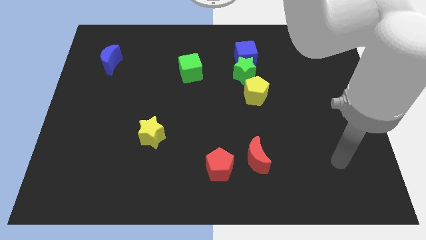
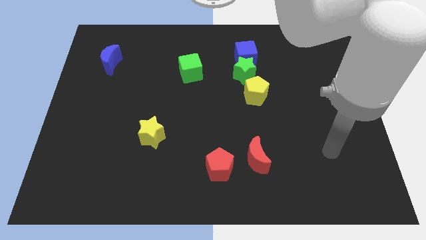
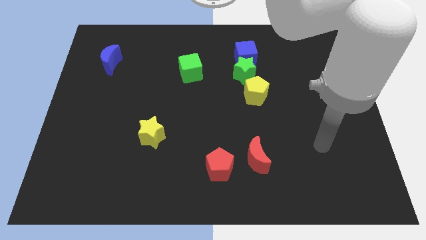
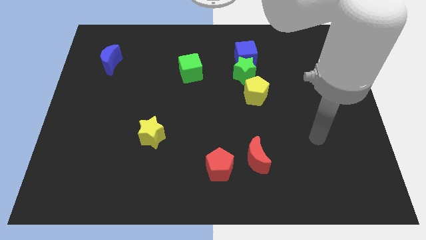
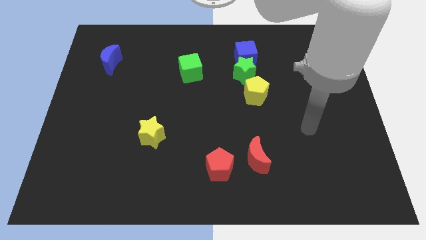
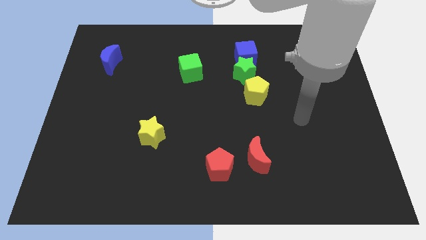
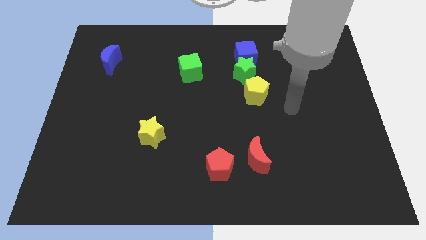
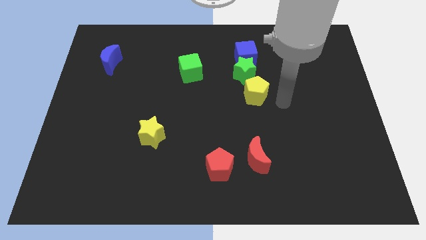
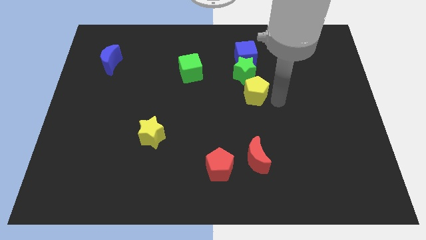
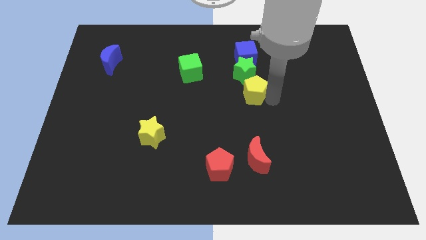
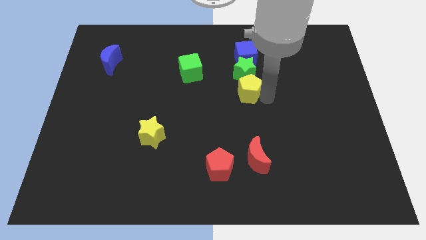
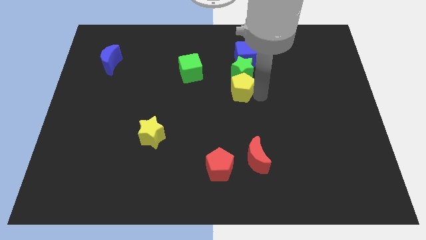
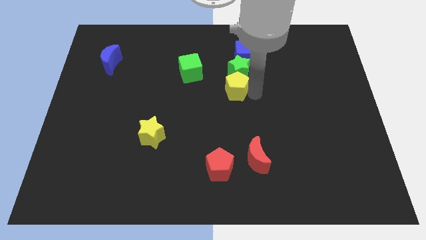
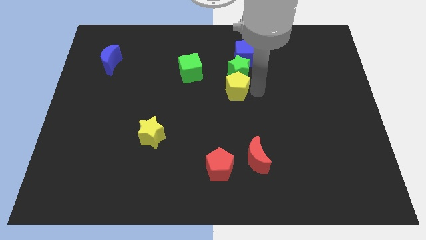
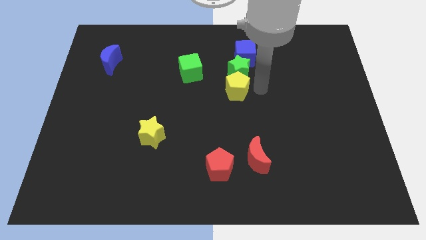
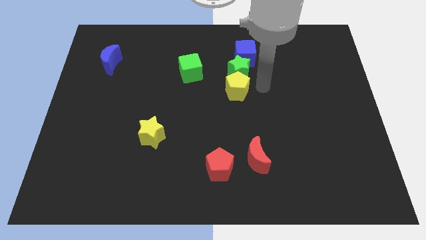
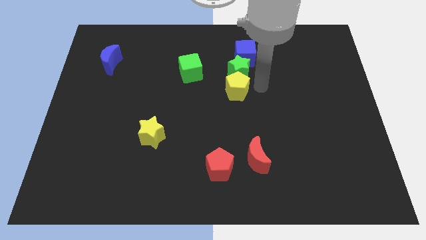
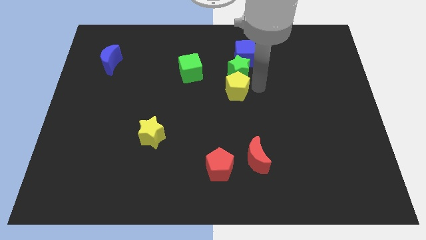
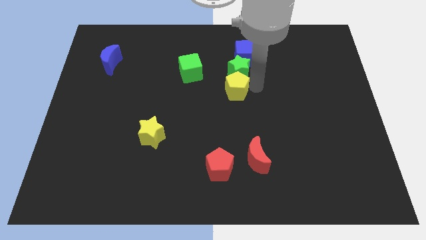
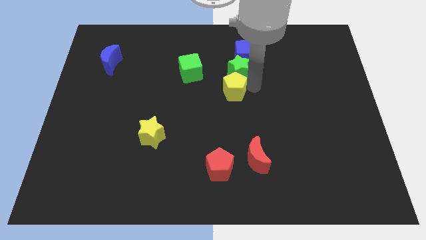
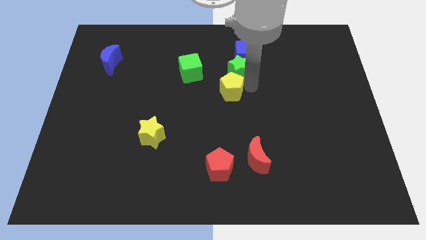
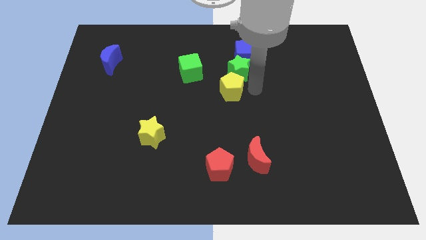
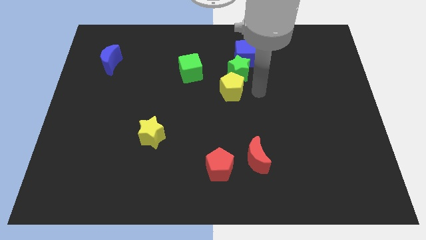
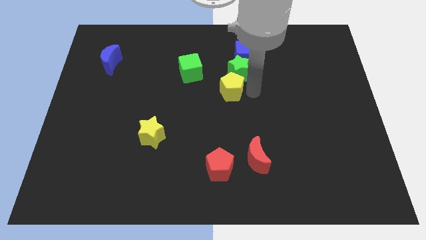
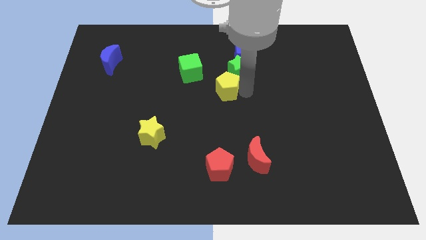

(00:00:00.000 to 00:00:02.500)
slightly push the yellow pentagon left

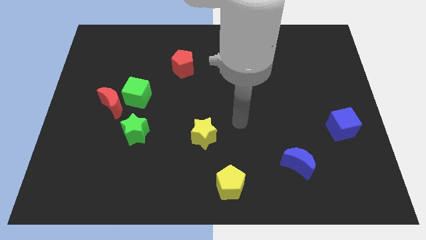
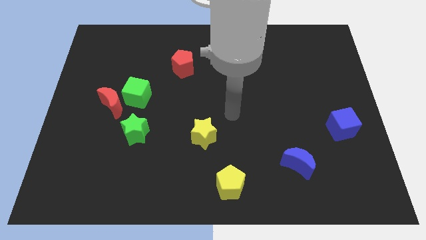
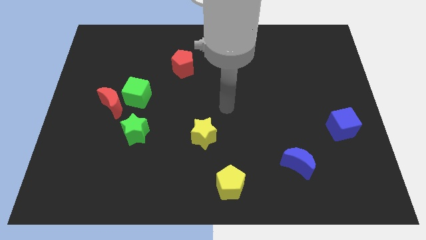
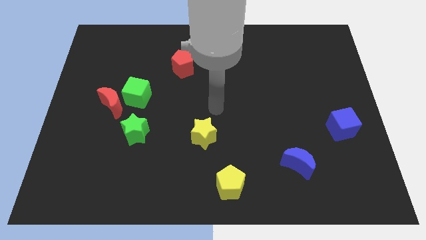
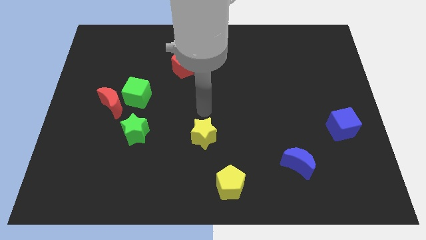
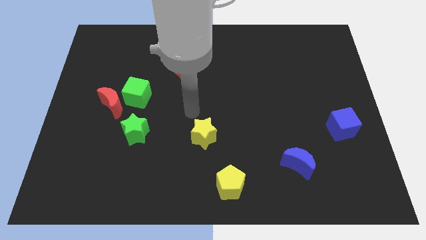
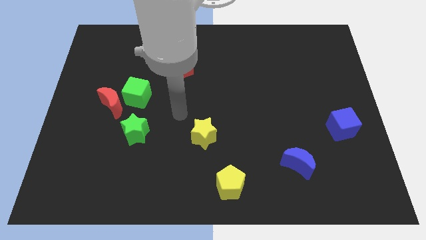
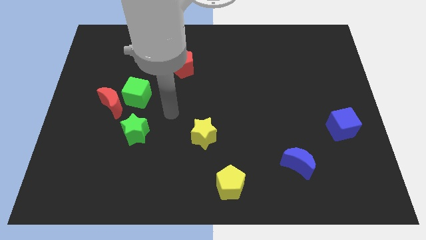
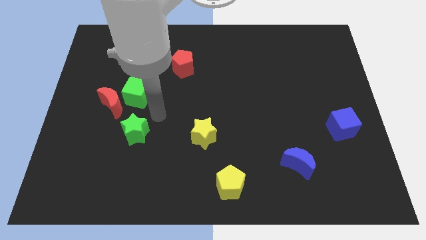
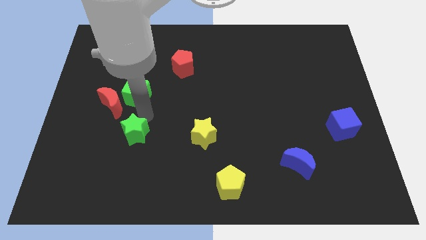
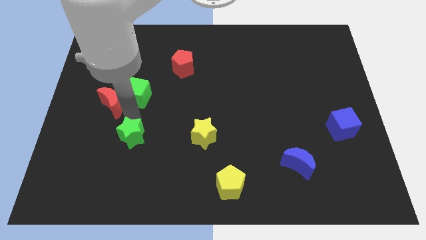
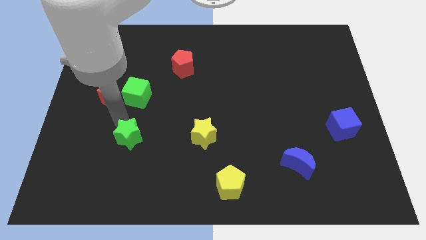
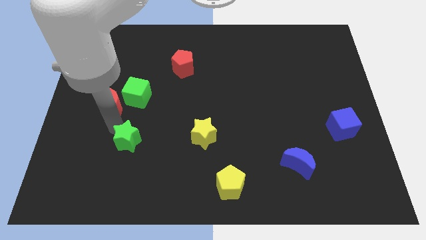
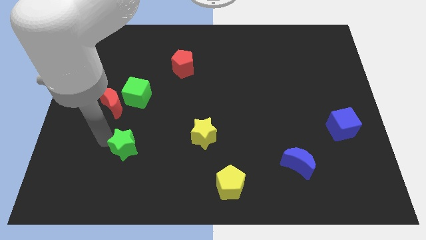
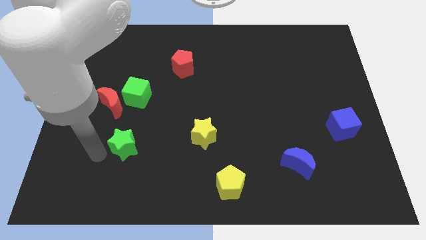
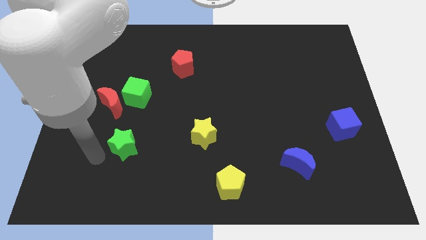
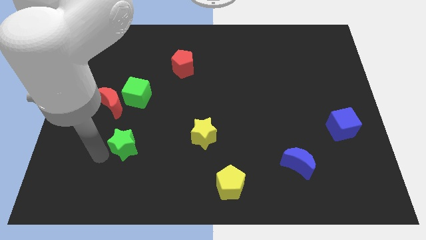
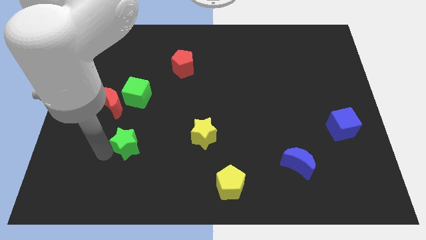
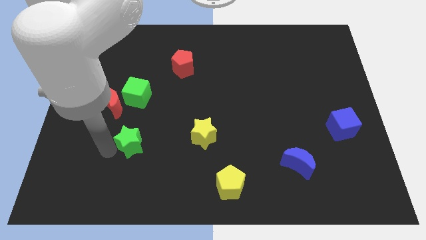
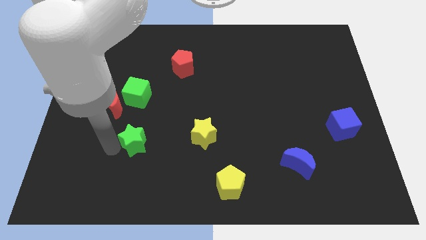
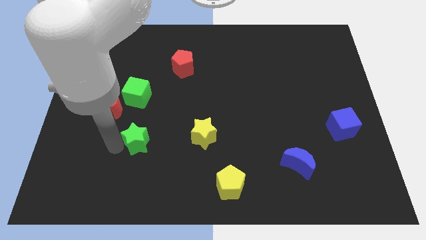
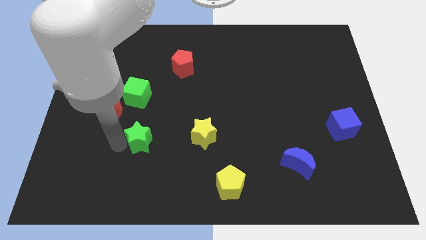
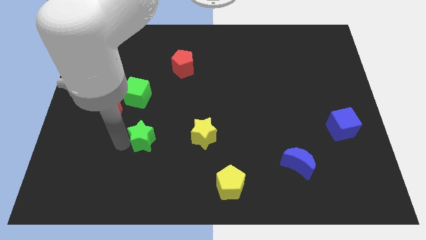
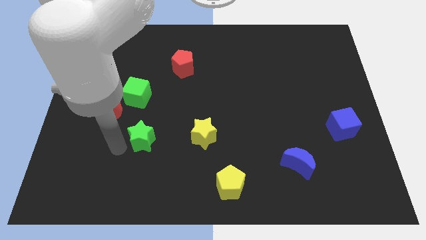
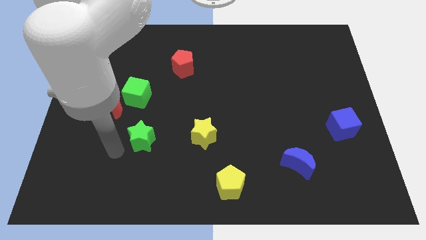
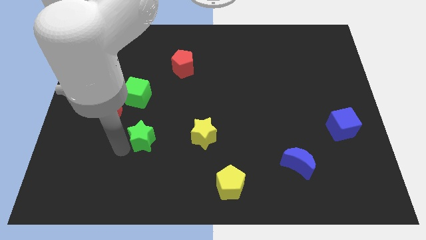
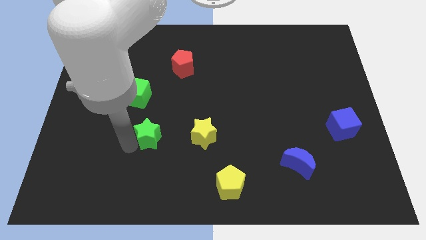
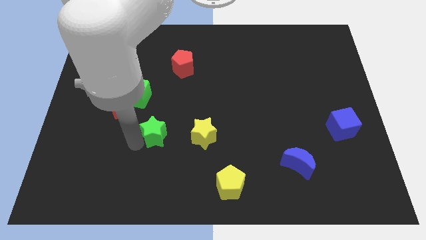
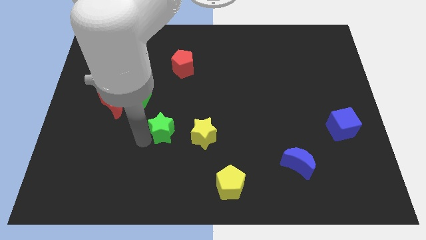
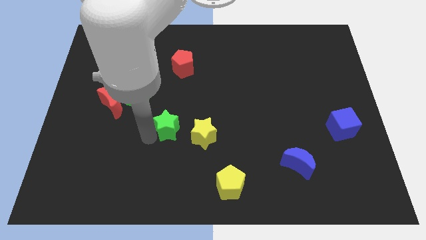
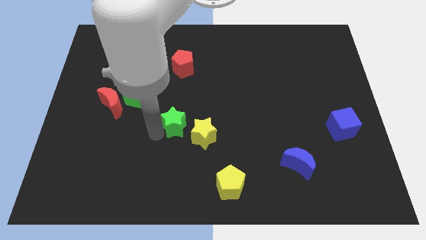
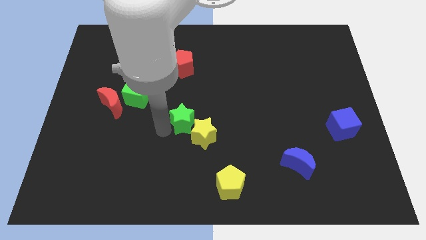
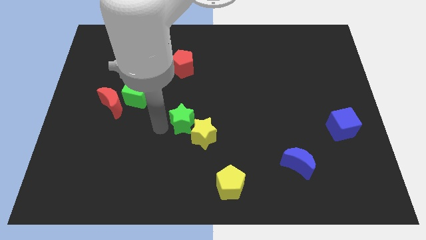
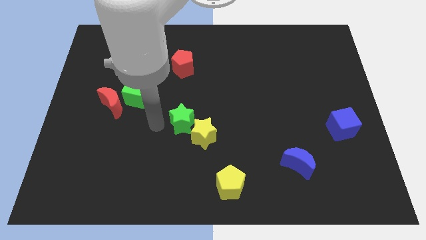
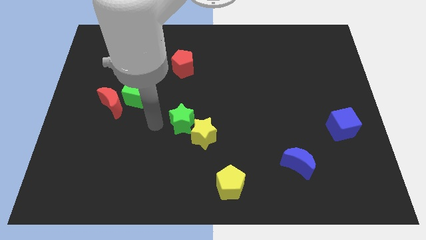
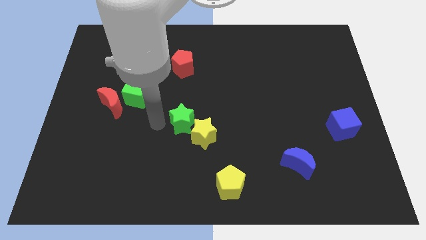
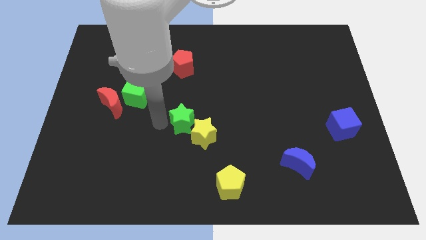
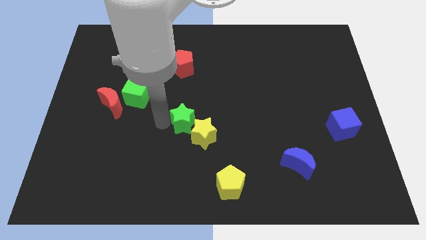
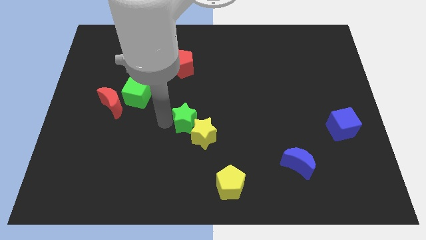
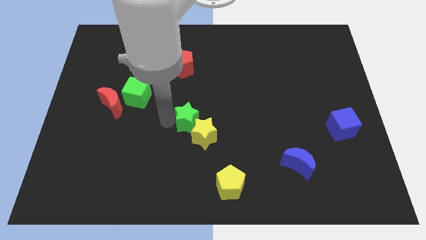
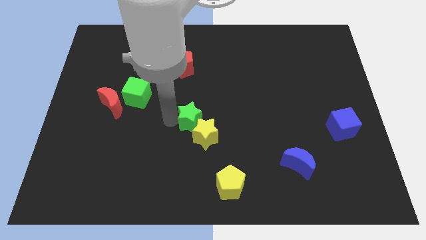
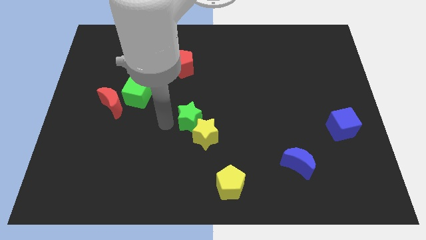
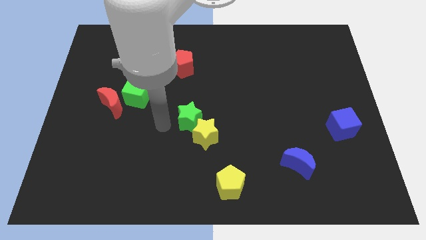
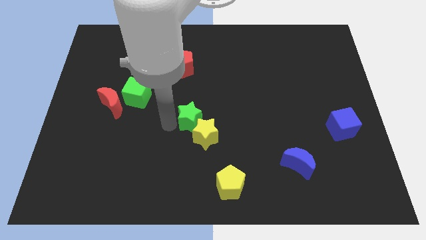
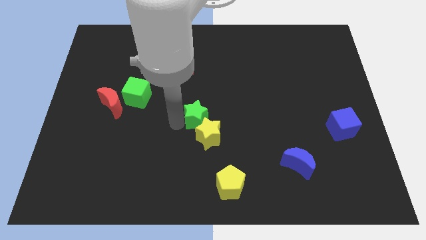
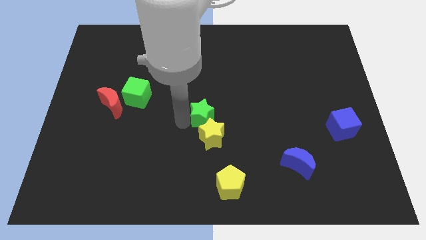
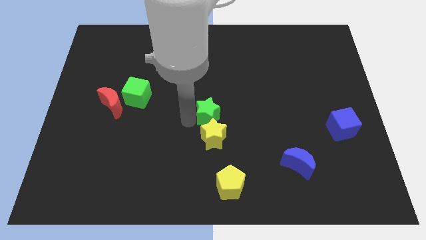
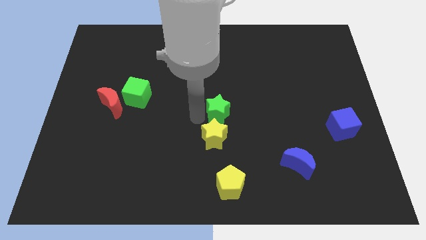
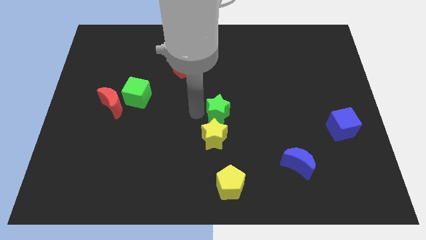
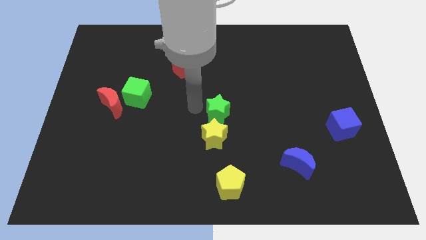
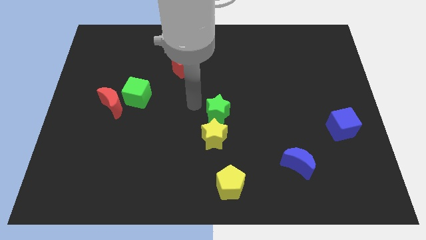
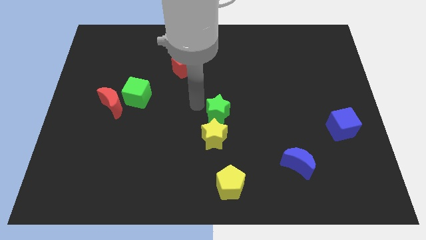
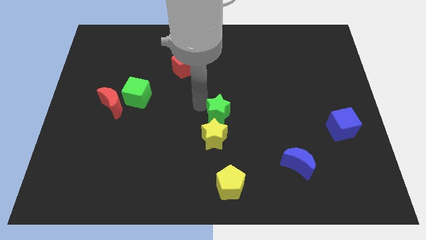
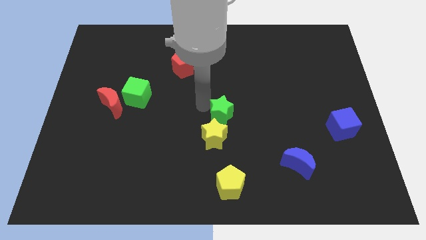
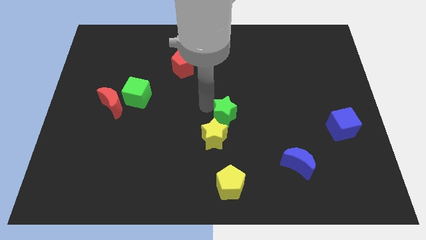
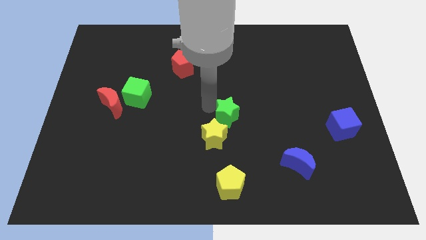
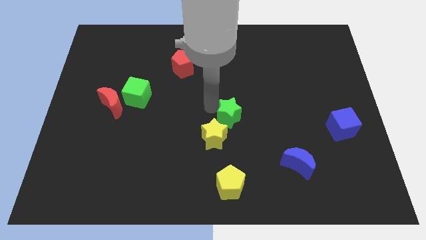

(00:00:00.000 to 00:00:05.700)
push the green star right
